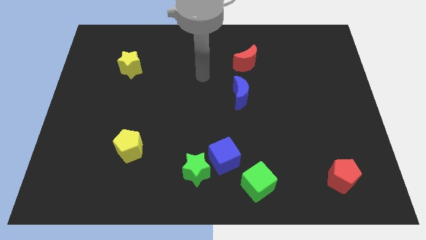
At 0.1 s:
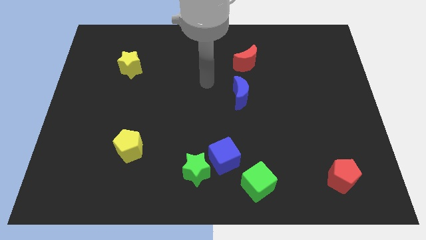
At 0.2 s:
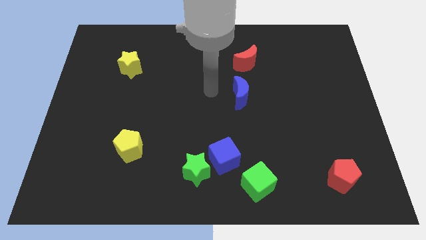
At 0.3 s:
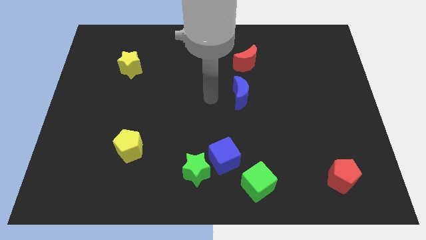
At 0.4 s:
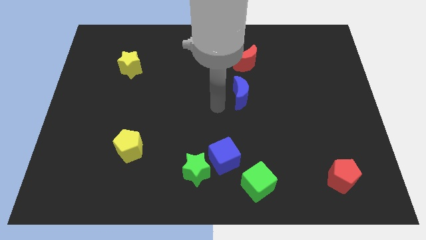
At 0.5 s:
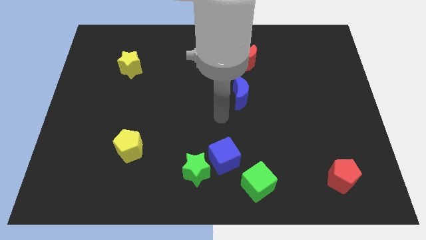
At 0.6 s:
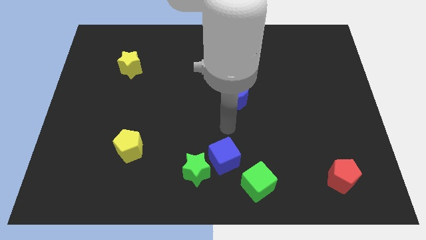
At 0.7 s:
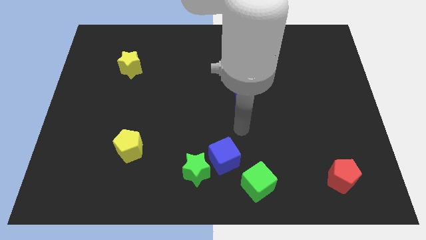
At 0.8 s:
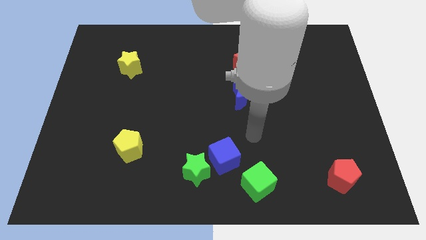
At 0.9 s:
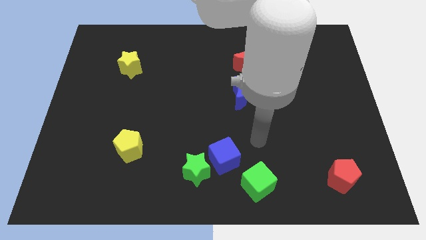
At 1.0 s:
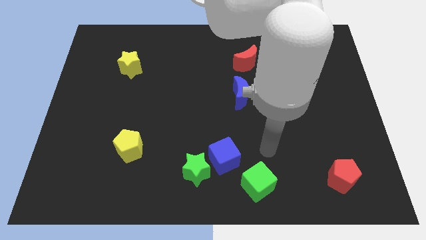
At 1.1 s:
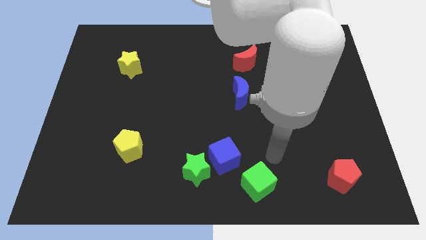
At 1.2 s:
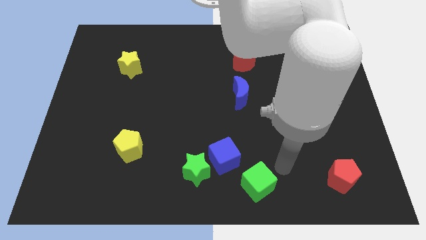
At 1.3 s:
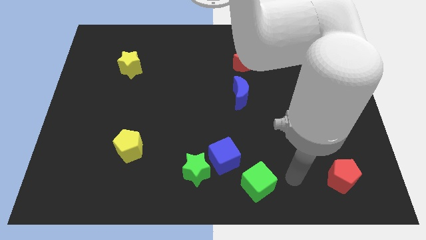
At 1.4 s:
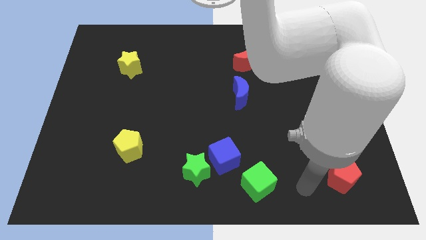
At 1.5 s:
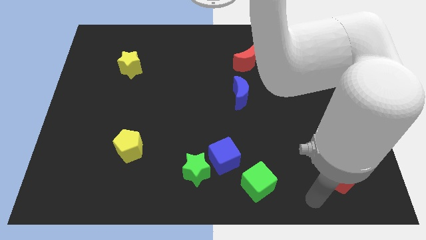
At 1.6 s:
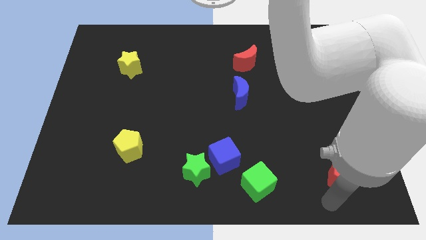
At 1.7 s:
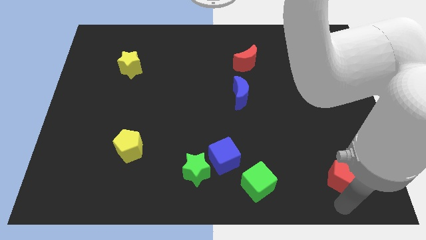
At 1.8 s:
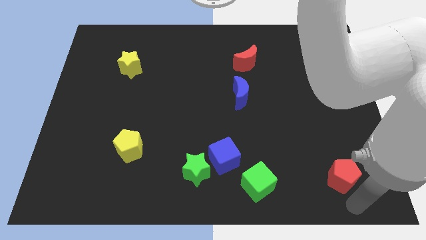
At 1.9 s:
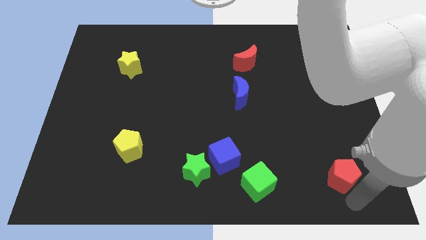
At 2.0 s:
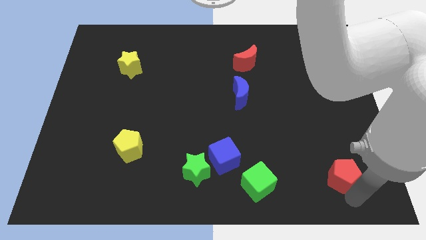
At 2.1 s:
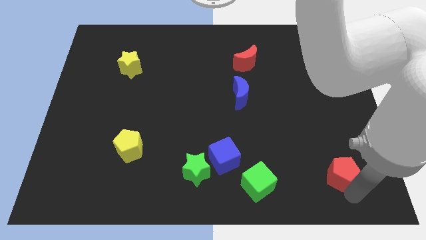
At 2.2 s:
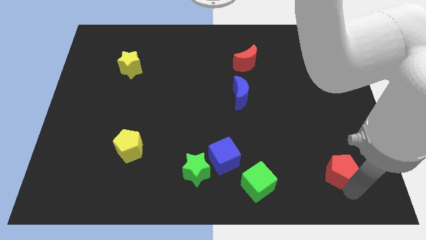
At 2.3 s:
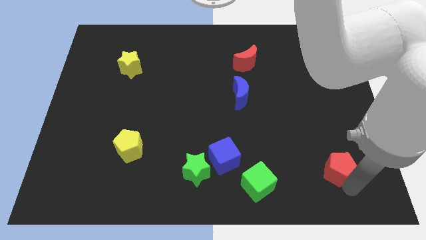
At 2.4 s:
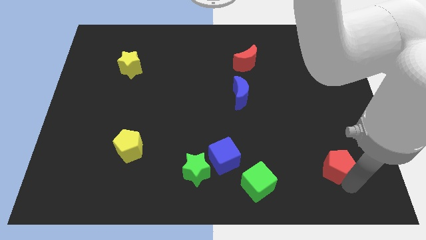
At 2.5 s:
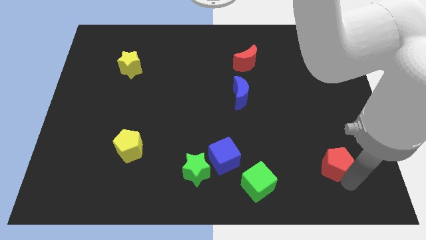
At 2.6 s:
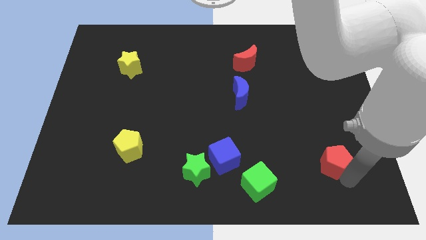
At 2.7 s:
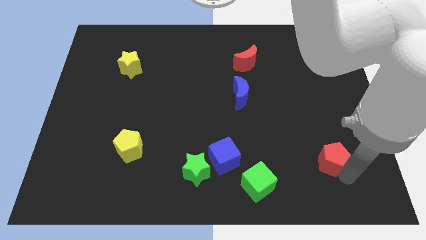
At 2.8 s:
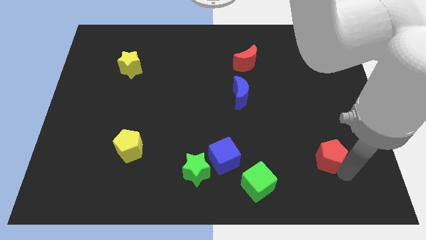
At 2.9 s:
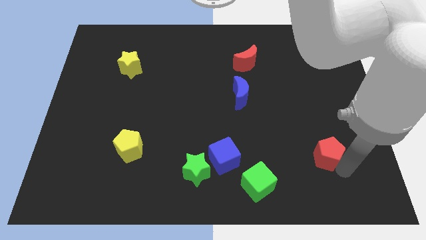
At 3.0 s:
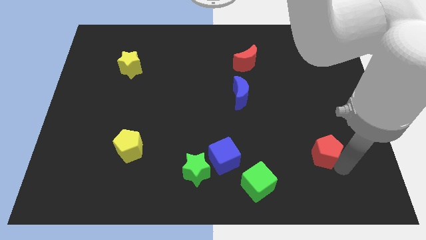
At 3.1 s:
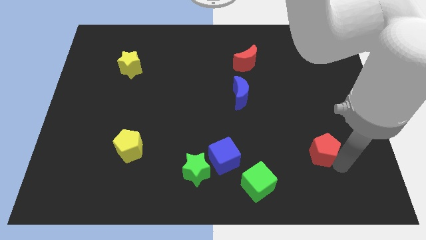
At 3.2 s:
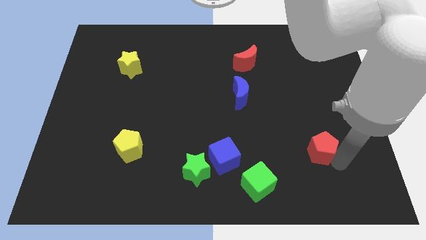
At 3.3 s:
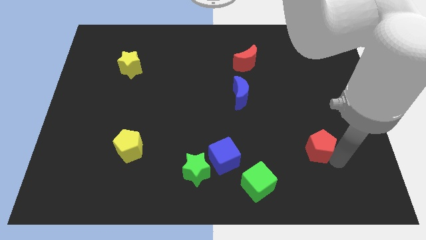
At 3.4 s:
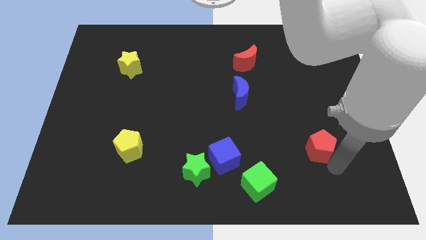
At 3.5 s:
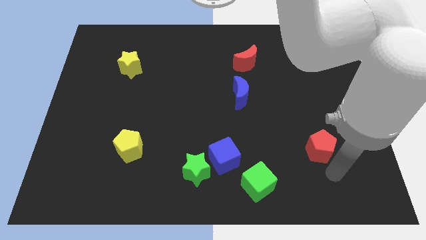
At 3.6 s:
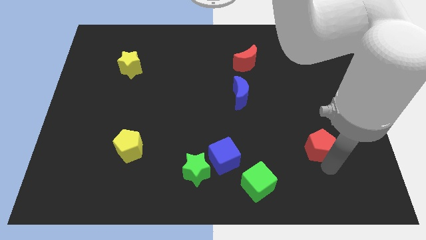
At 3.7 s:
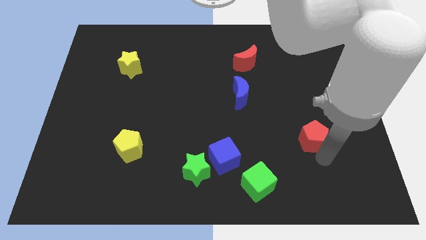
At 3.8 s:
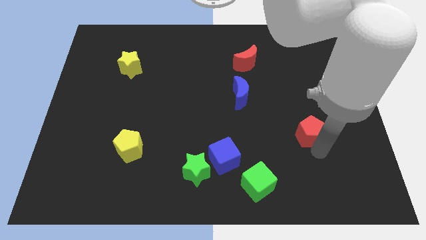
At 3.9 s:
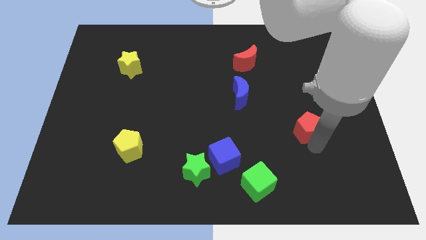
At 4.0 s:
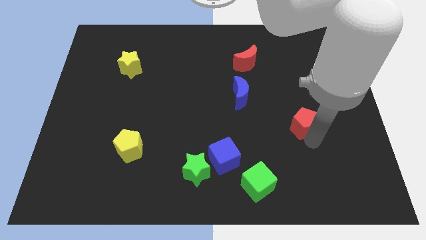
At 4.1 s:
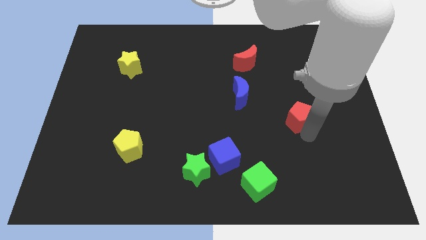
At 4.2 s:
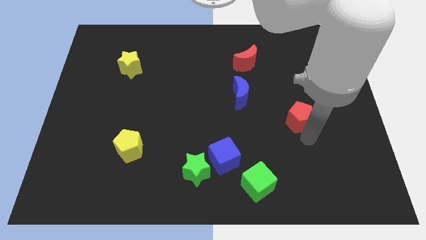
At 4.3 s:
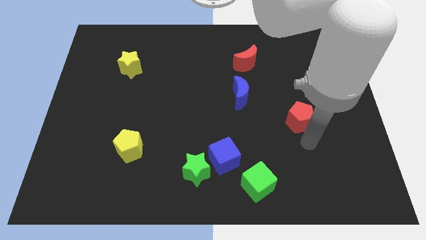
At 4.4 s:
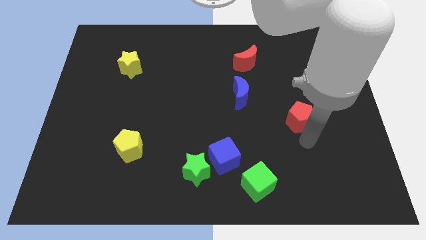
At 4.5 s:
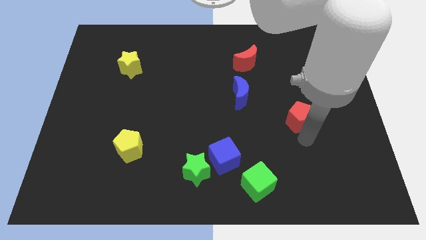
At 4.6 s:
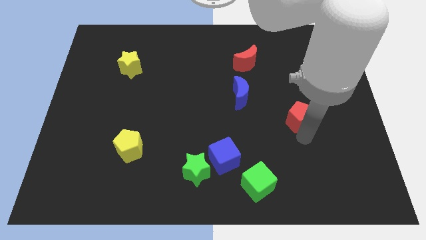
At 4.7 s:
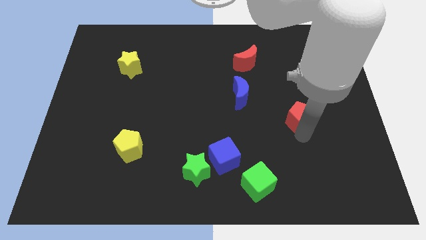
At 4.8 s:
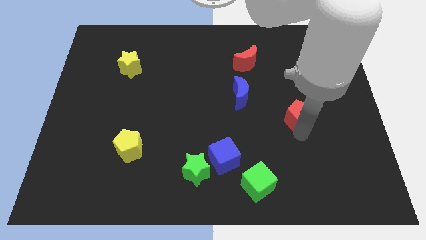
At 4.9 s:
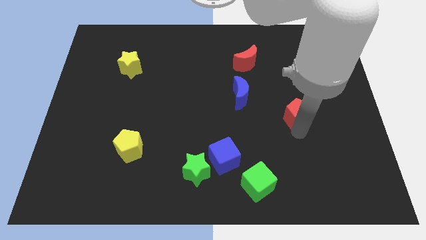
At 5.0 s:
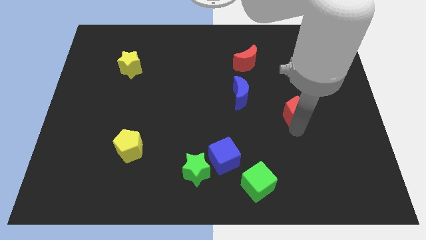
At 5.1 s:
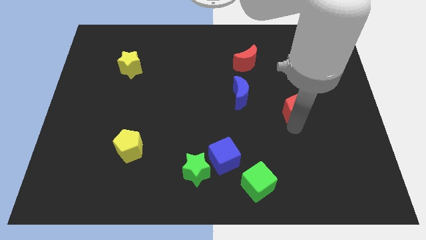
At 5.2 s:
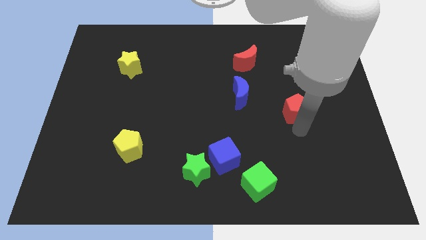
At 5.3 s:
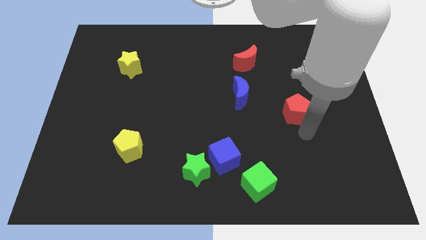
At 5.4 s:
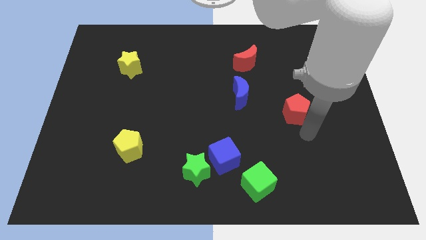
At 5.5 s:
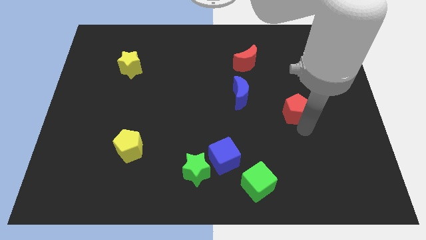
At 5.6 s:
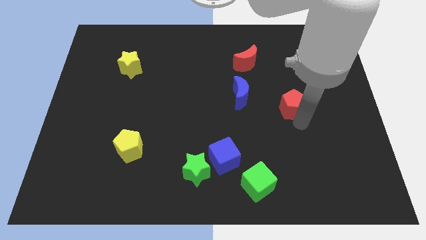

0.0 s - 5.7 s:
move the red pentagon right of the blue moon

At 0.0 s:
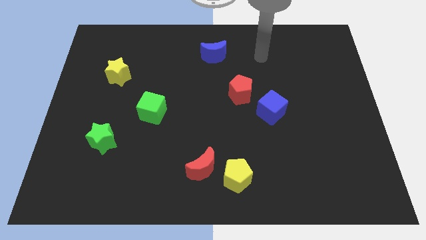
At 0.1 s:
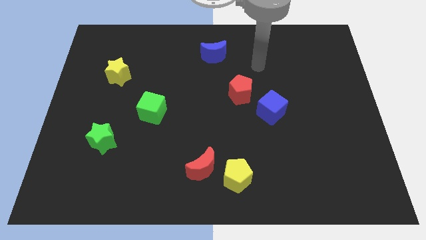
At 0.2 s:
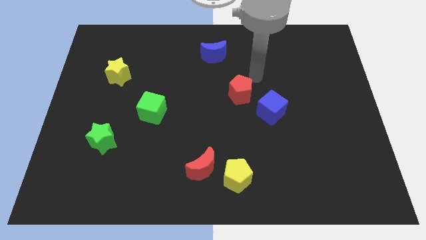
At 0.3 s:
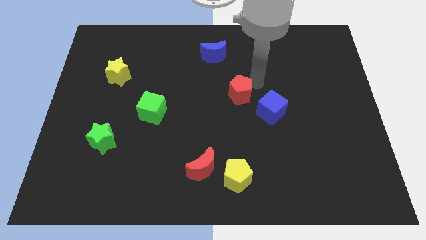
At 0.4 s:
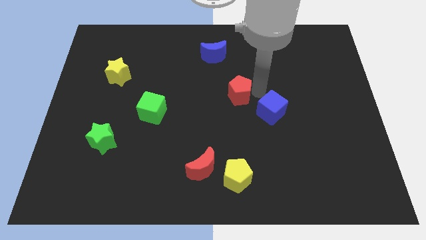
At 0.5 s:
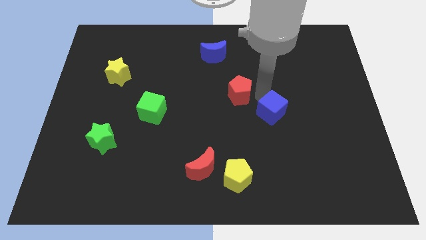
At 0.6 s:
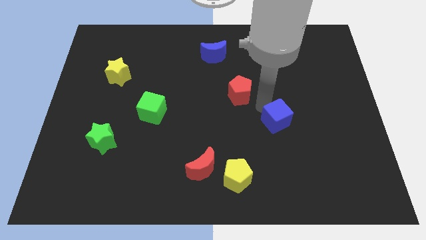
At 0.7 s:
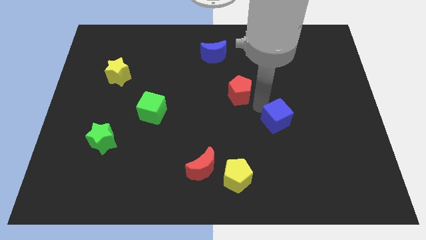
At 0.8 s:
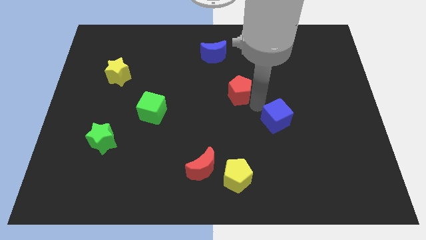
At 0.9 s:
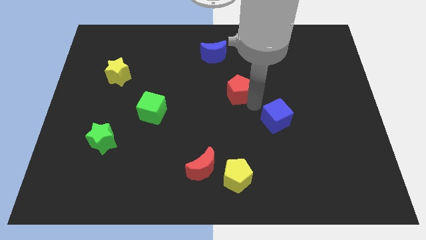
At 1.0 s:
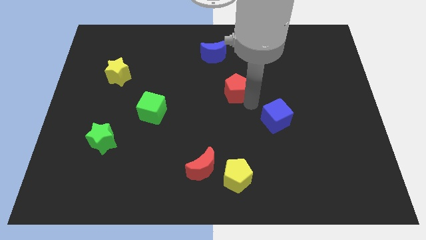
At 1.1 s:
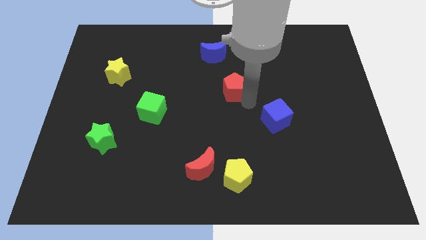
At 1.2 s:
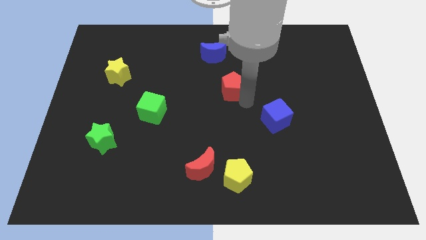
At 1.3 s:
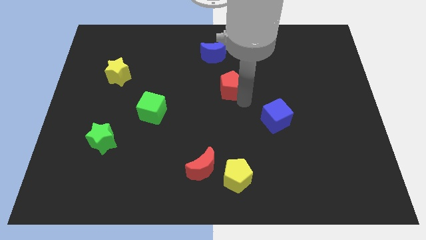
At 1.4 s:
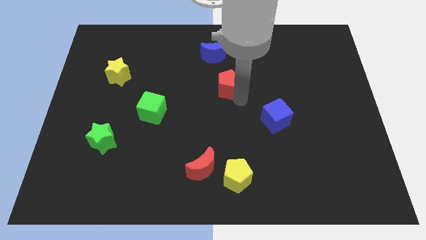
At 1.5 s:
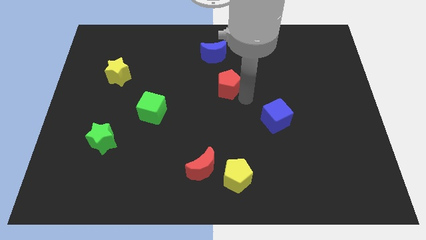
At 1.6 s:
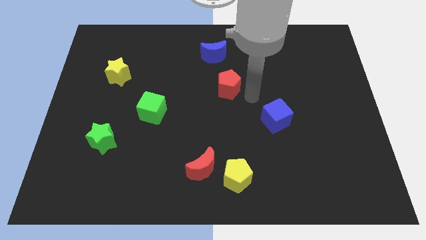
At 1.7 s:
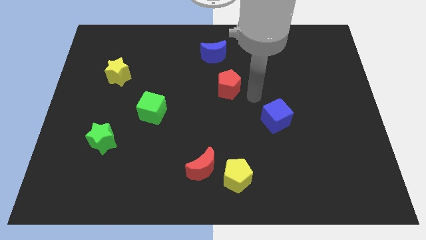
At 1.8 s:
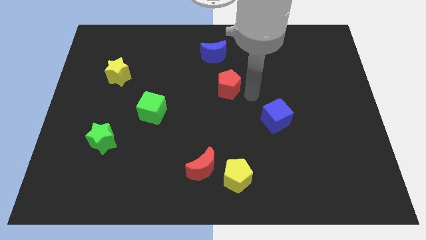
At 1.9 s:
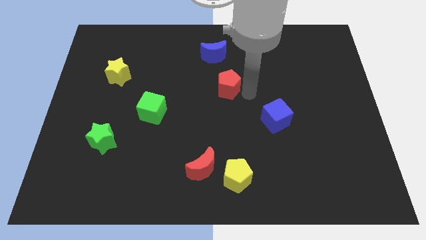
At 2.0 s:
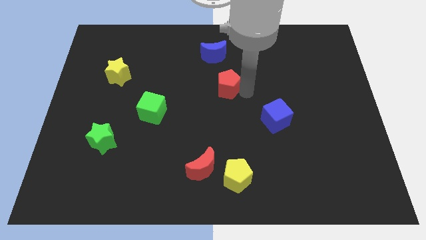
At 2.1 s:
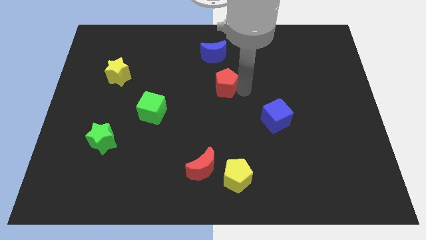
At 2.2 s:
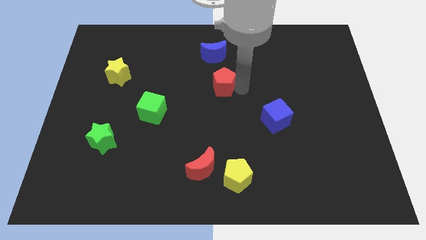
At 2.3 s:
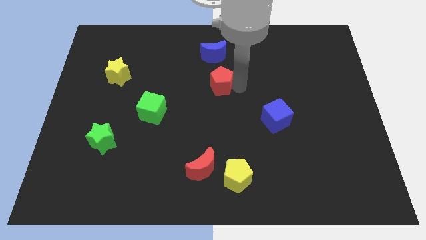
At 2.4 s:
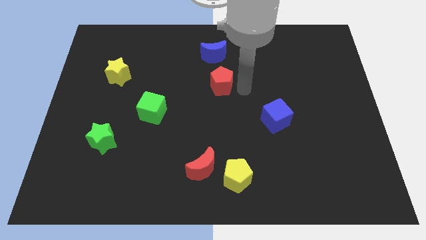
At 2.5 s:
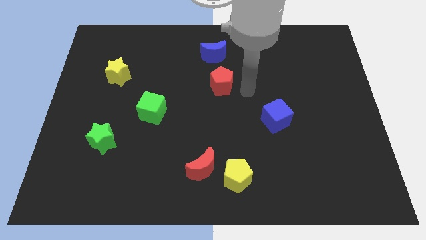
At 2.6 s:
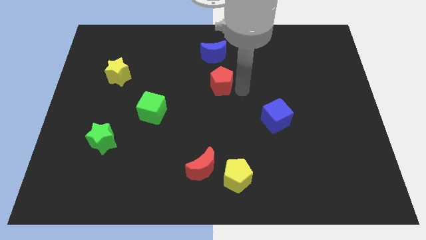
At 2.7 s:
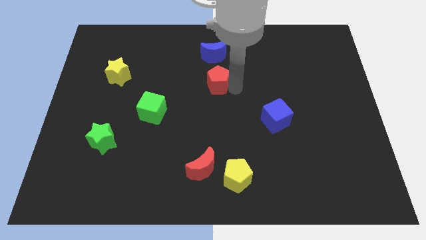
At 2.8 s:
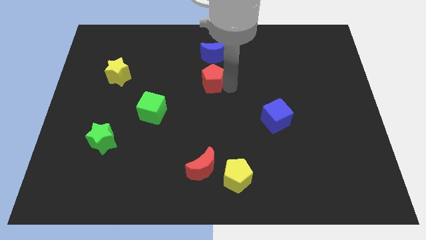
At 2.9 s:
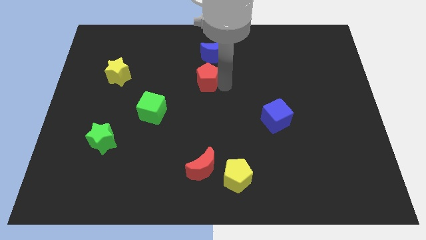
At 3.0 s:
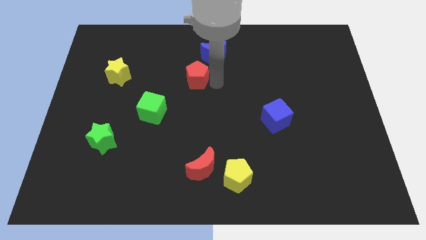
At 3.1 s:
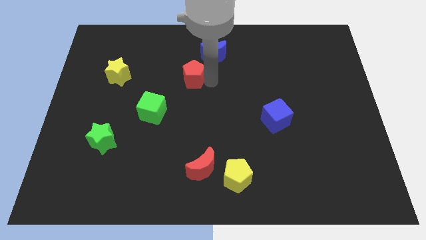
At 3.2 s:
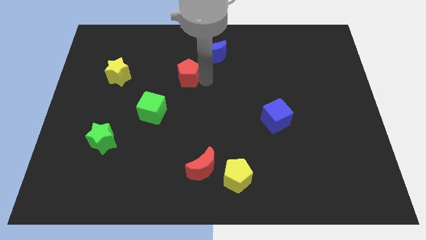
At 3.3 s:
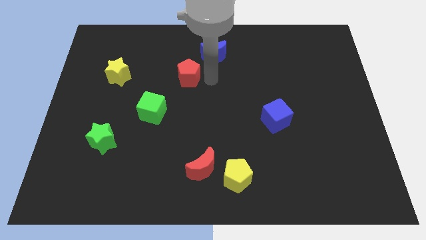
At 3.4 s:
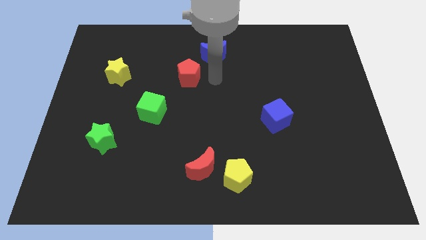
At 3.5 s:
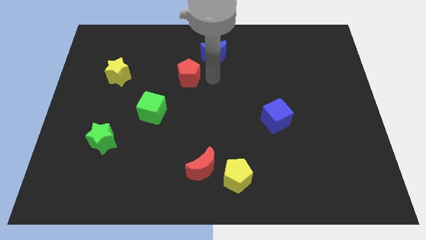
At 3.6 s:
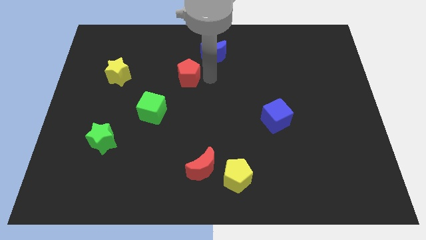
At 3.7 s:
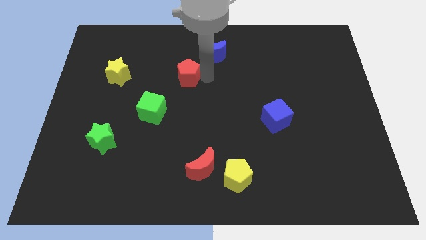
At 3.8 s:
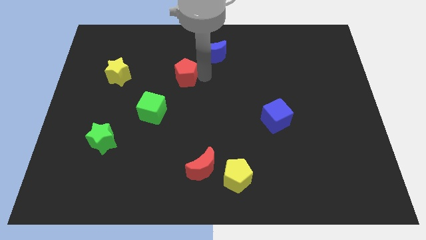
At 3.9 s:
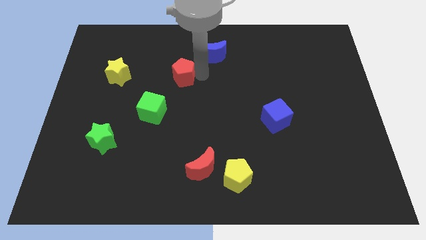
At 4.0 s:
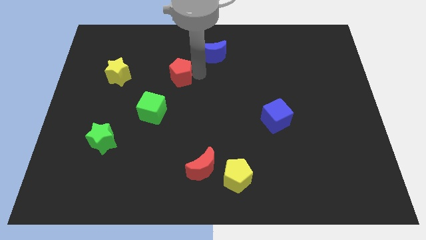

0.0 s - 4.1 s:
slide the red pentagon right of the yellow star
